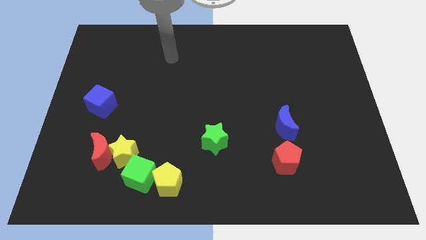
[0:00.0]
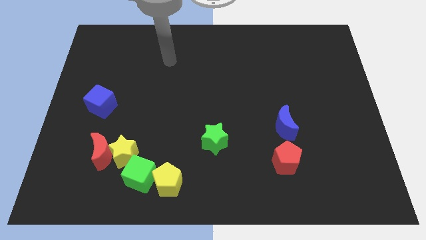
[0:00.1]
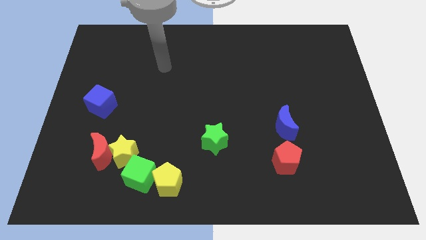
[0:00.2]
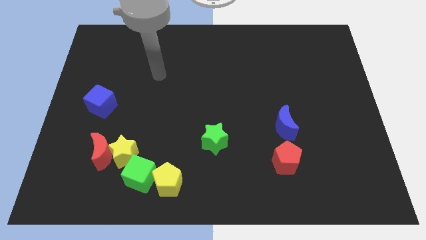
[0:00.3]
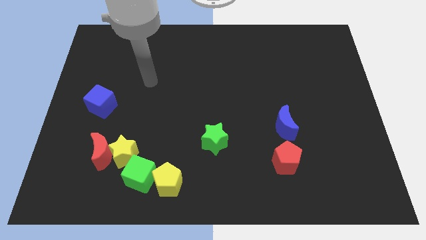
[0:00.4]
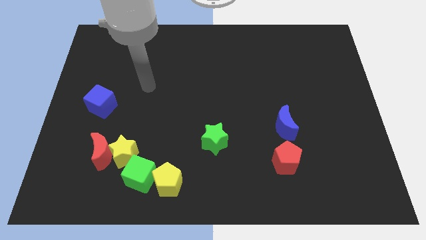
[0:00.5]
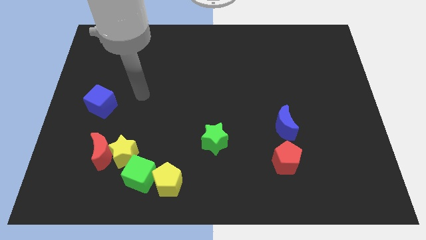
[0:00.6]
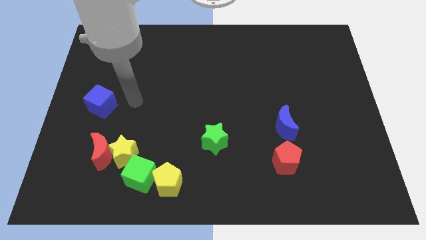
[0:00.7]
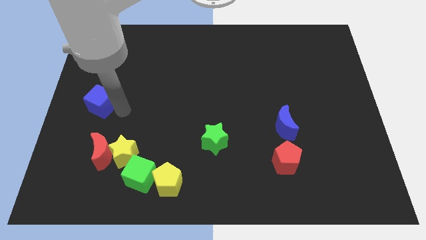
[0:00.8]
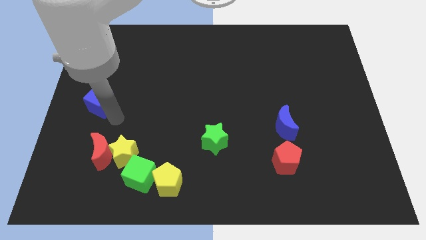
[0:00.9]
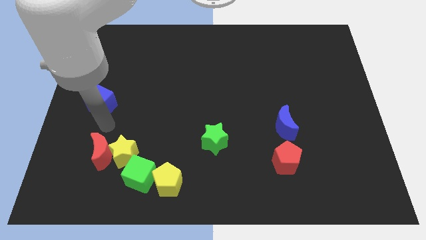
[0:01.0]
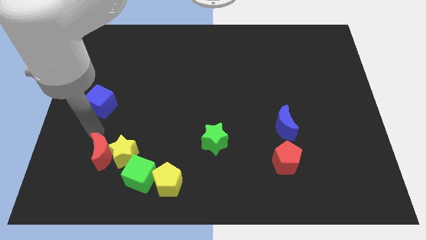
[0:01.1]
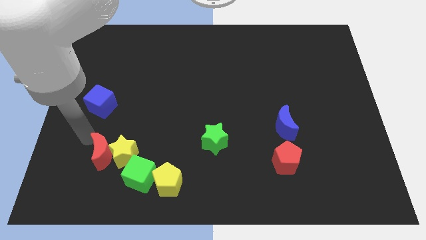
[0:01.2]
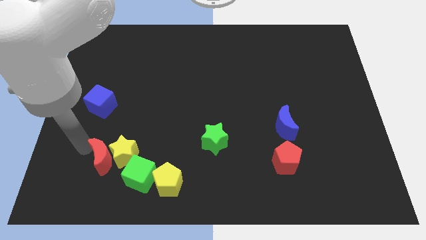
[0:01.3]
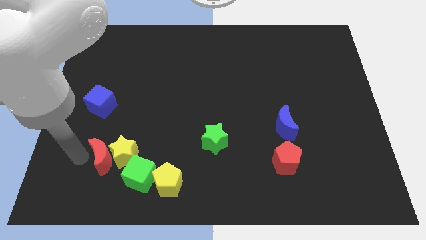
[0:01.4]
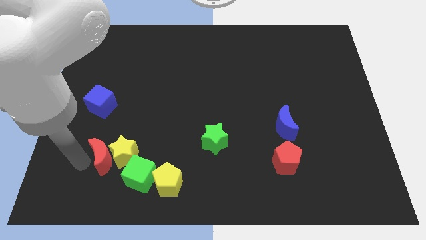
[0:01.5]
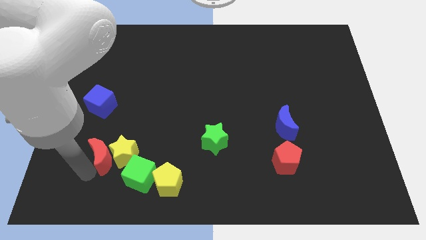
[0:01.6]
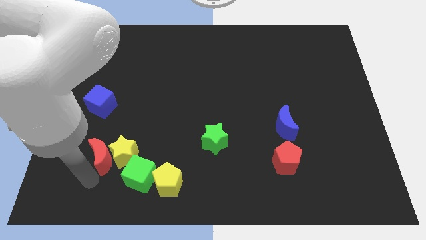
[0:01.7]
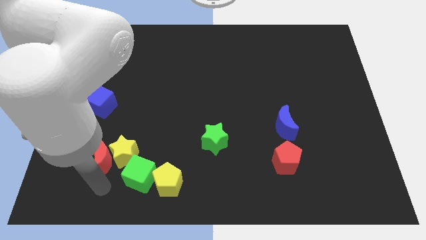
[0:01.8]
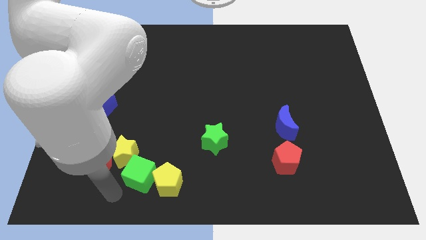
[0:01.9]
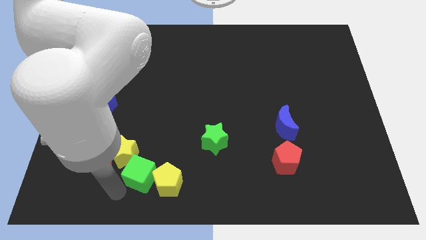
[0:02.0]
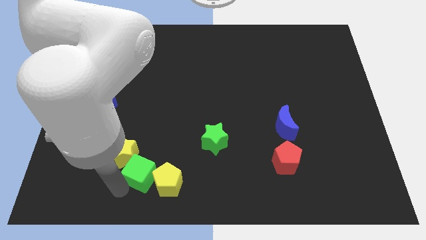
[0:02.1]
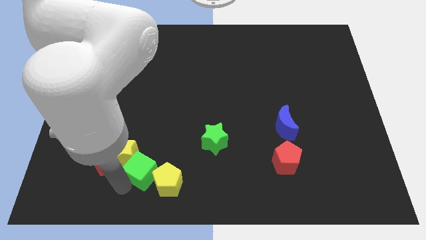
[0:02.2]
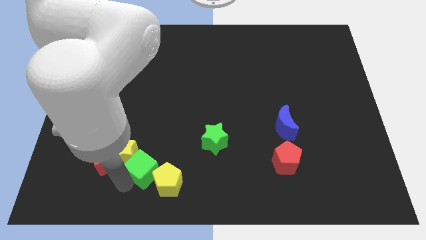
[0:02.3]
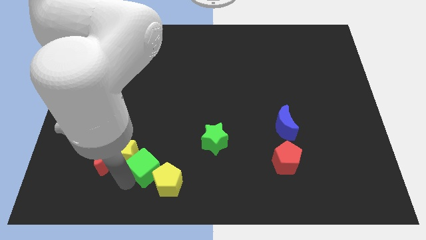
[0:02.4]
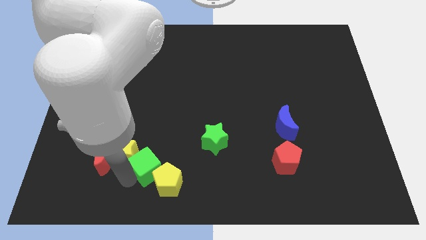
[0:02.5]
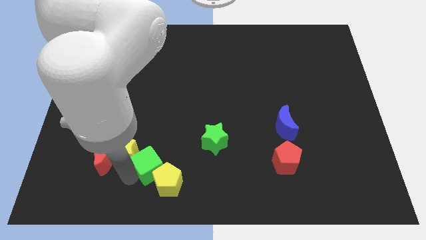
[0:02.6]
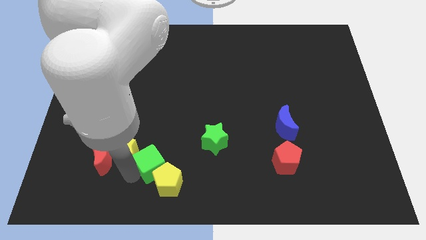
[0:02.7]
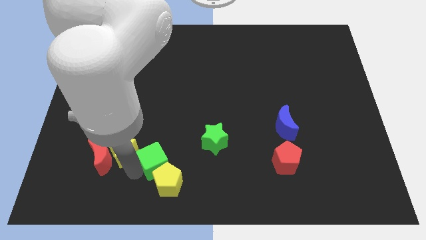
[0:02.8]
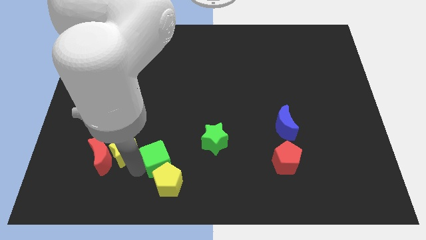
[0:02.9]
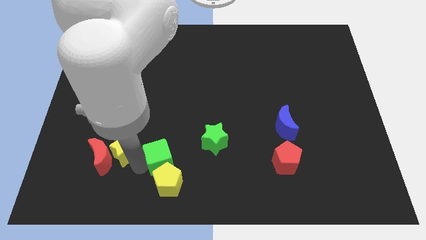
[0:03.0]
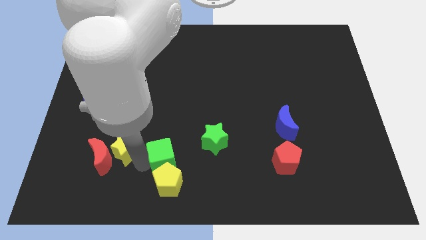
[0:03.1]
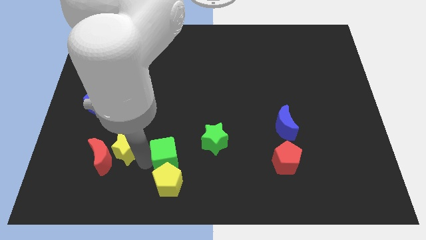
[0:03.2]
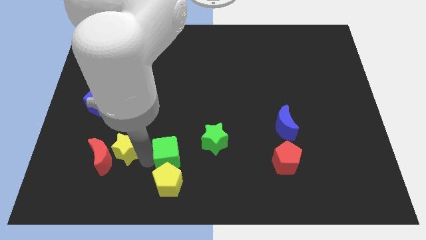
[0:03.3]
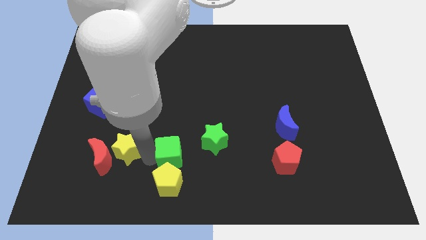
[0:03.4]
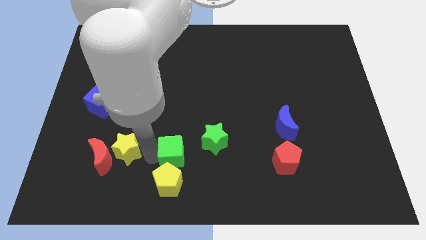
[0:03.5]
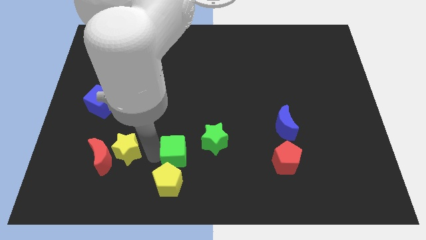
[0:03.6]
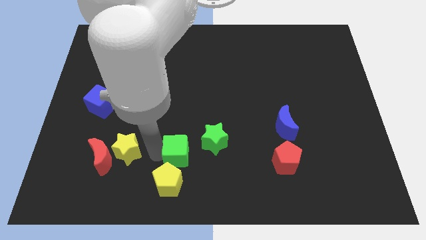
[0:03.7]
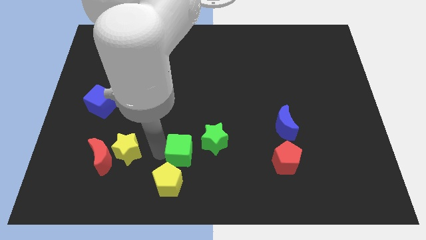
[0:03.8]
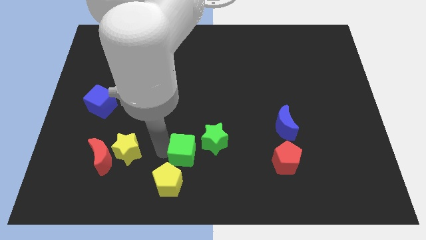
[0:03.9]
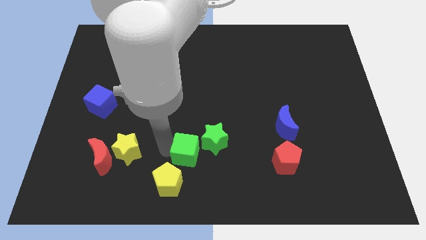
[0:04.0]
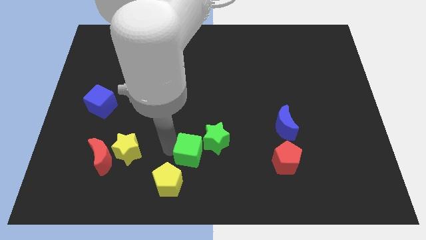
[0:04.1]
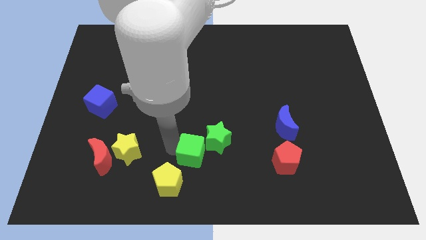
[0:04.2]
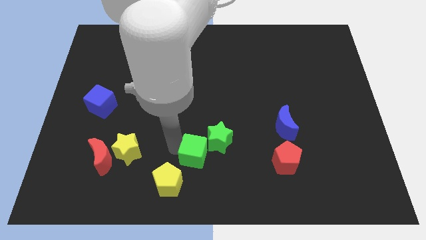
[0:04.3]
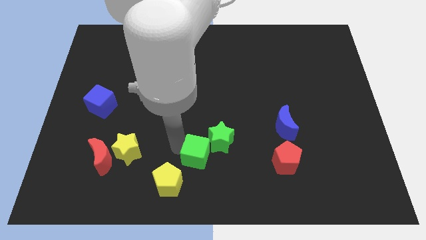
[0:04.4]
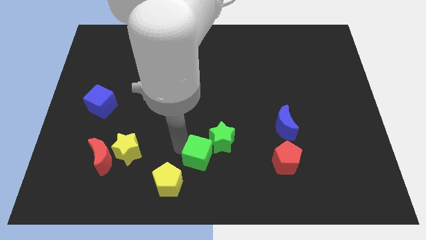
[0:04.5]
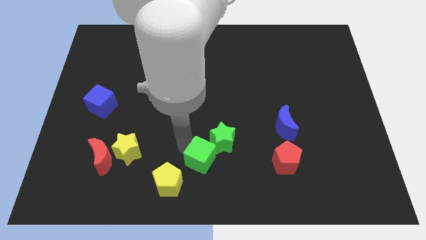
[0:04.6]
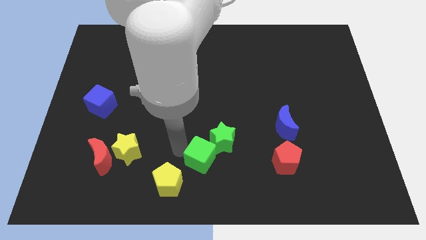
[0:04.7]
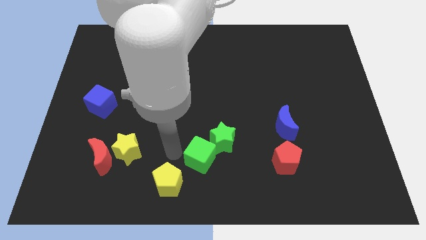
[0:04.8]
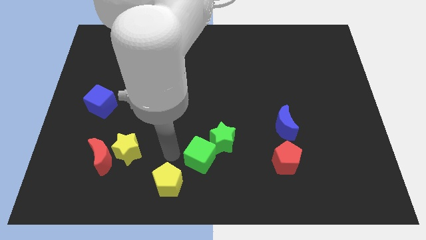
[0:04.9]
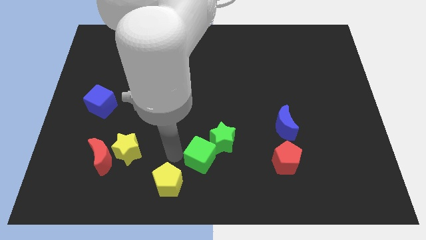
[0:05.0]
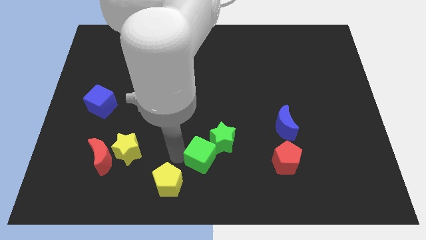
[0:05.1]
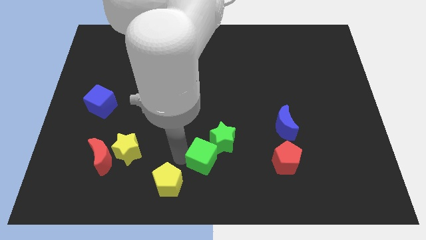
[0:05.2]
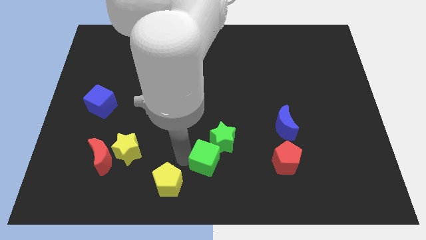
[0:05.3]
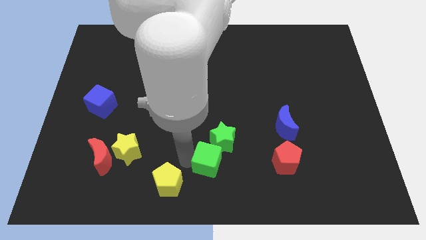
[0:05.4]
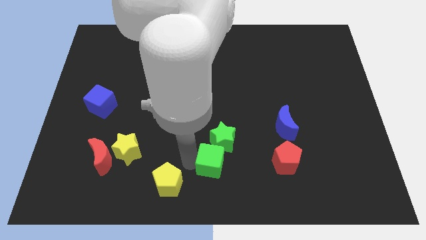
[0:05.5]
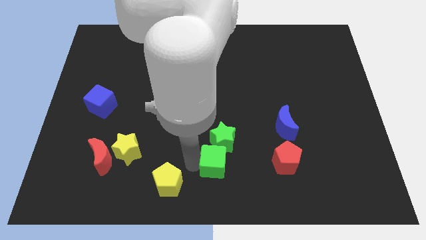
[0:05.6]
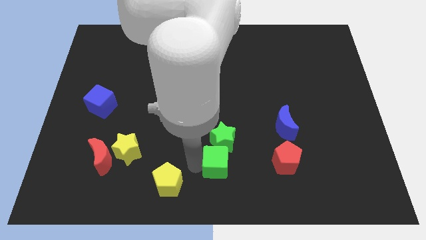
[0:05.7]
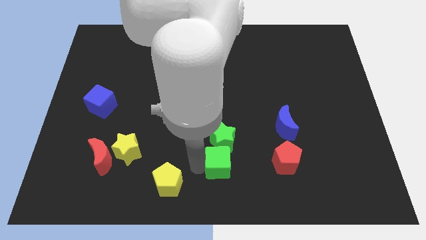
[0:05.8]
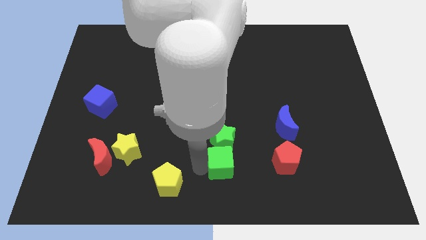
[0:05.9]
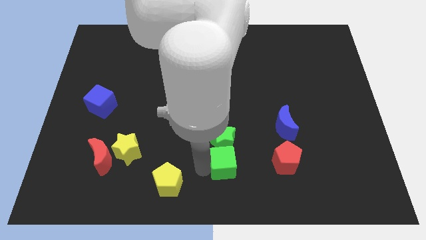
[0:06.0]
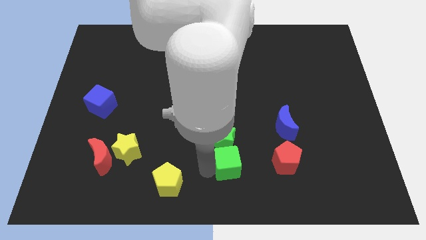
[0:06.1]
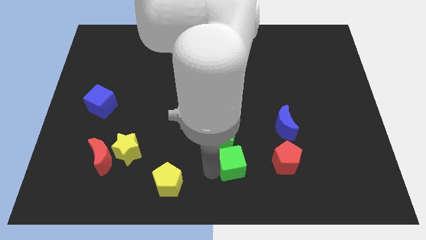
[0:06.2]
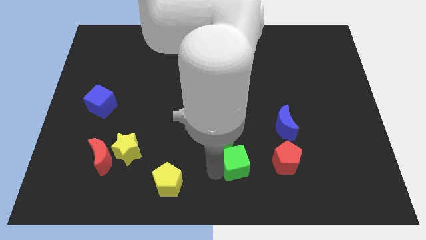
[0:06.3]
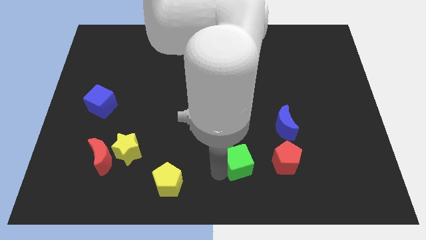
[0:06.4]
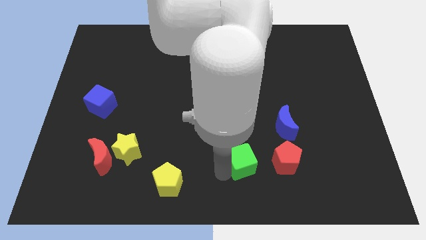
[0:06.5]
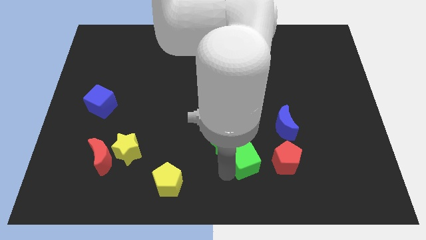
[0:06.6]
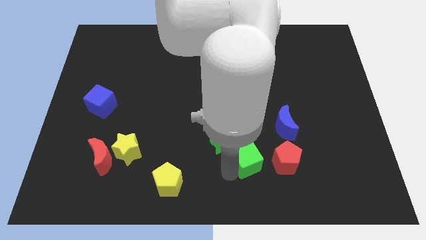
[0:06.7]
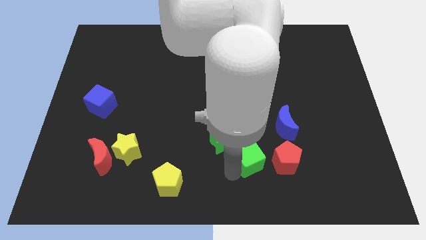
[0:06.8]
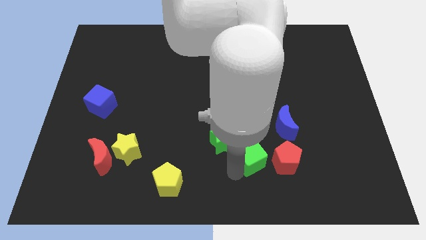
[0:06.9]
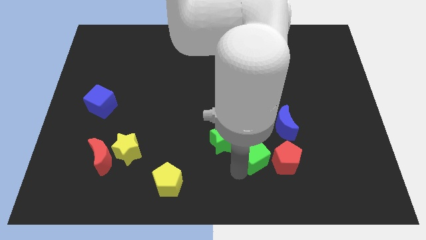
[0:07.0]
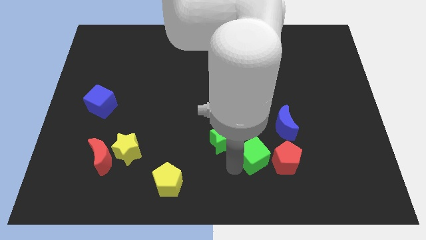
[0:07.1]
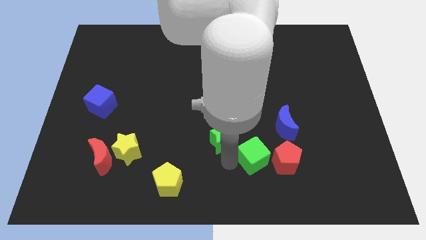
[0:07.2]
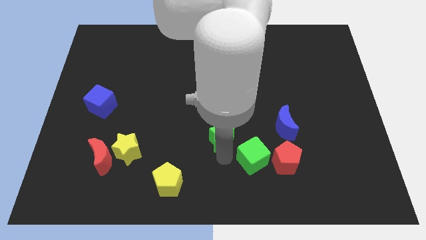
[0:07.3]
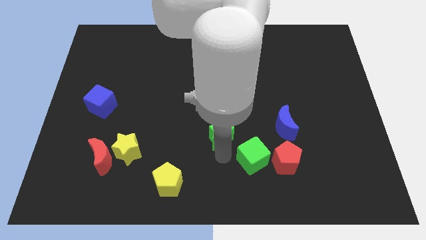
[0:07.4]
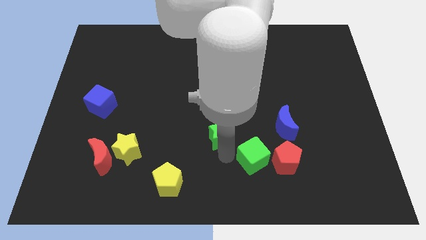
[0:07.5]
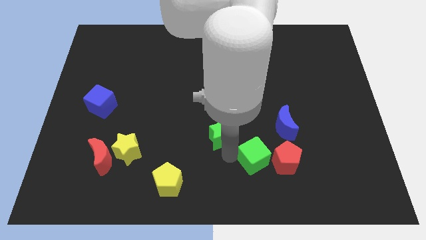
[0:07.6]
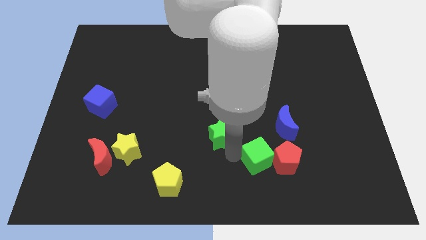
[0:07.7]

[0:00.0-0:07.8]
slide the green cube towards the red pentagon
